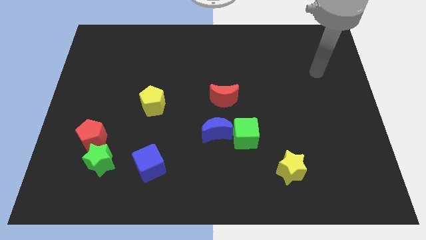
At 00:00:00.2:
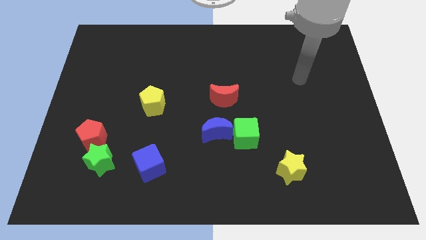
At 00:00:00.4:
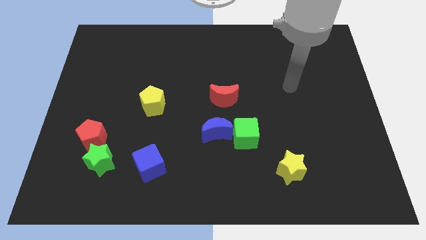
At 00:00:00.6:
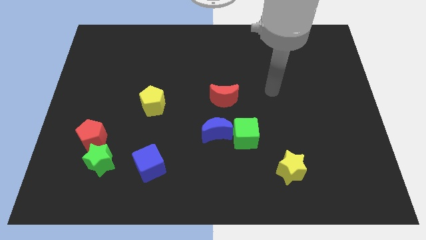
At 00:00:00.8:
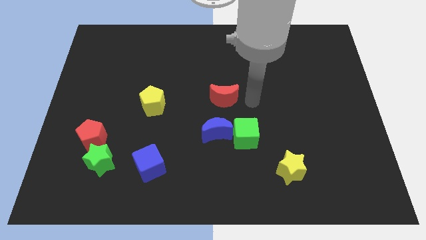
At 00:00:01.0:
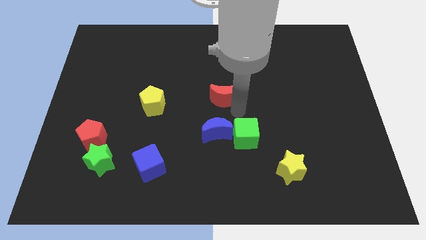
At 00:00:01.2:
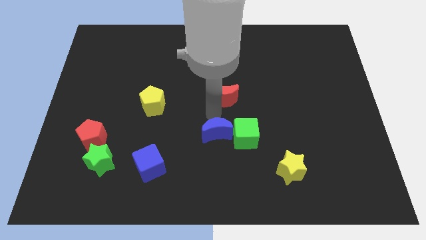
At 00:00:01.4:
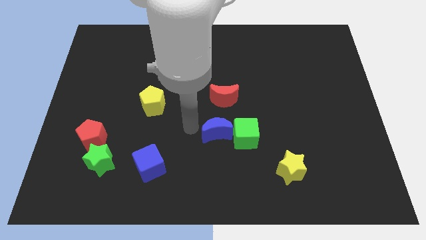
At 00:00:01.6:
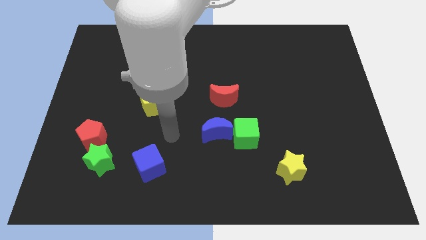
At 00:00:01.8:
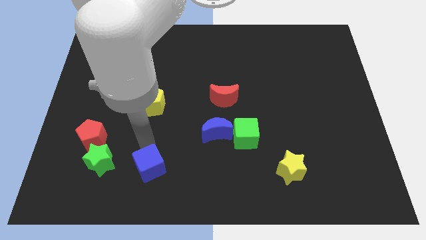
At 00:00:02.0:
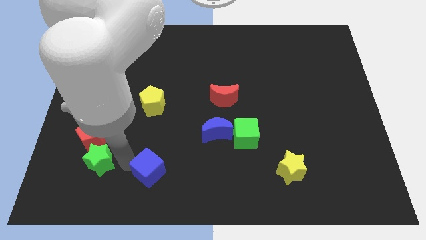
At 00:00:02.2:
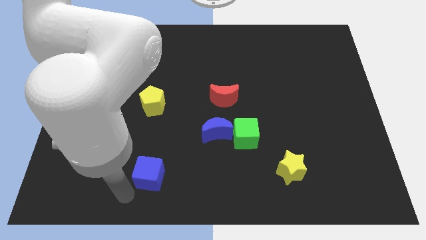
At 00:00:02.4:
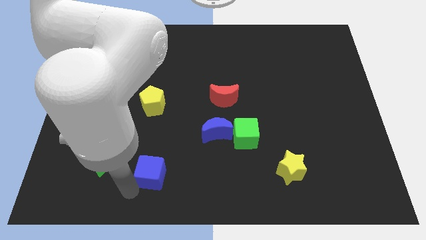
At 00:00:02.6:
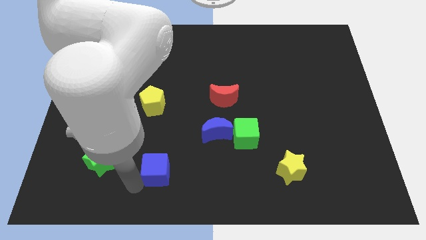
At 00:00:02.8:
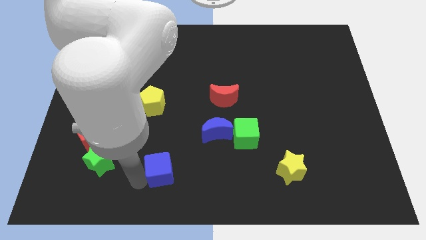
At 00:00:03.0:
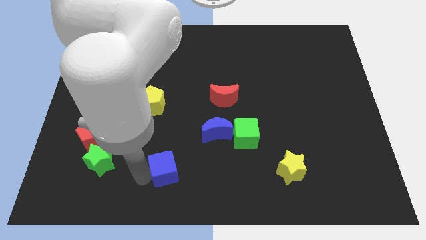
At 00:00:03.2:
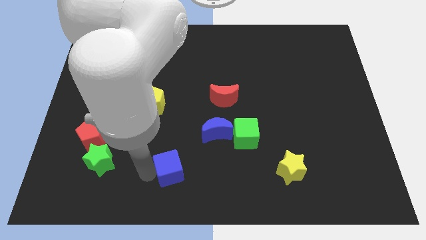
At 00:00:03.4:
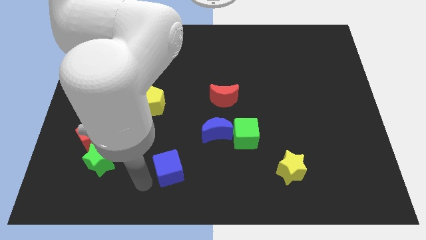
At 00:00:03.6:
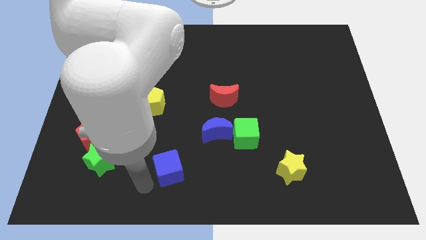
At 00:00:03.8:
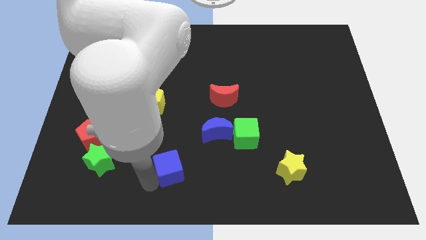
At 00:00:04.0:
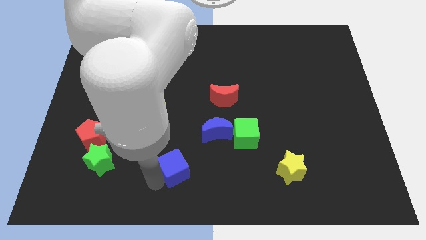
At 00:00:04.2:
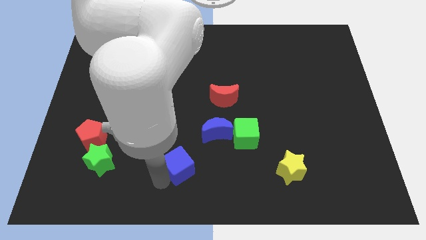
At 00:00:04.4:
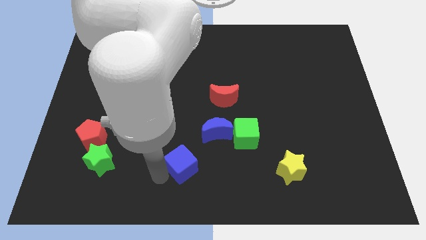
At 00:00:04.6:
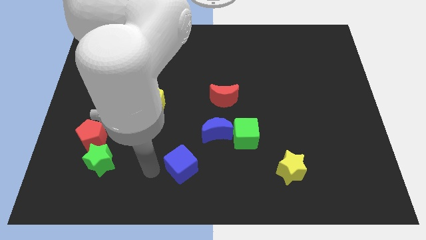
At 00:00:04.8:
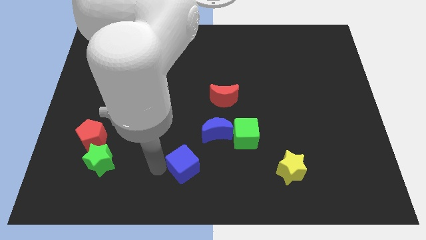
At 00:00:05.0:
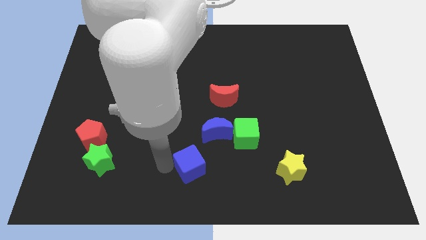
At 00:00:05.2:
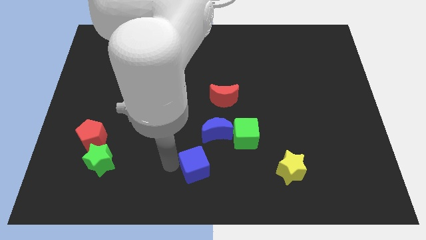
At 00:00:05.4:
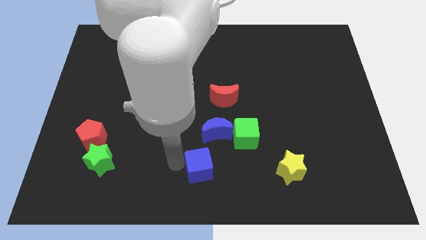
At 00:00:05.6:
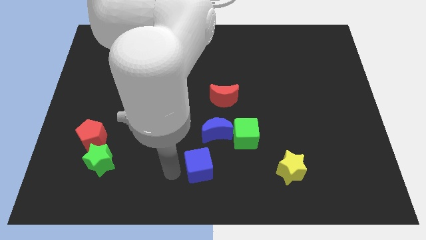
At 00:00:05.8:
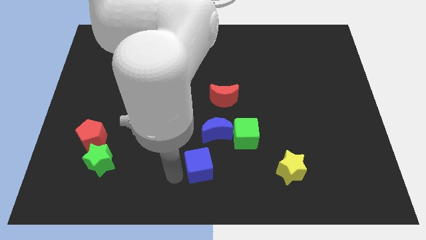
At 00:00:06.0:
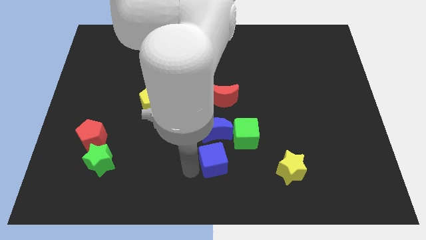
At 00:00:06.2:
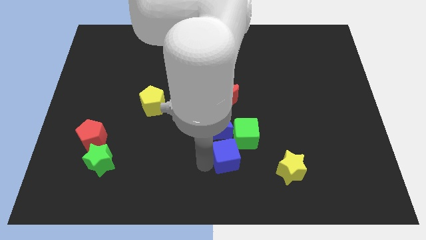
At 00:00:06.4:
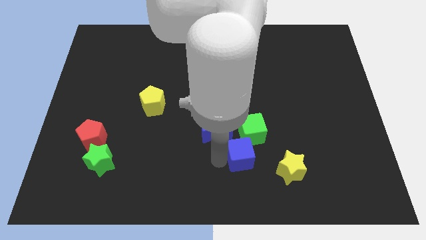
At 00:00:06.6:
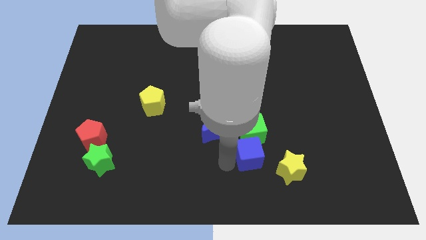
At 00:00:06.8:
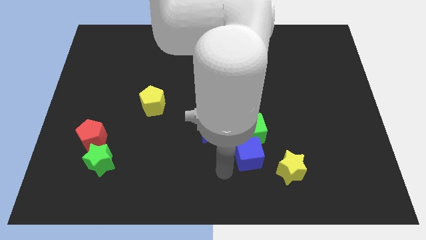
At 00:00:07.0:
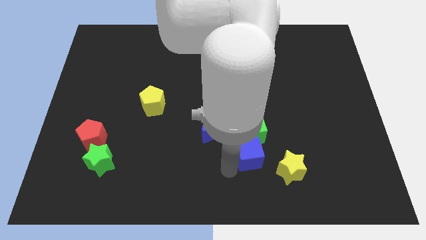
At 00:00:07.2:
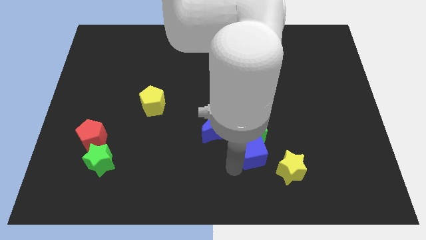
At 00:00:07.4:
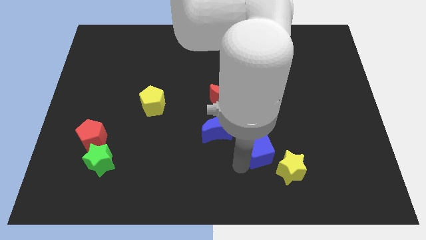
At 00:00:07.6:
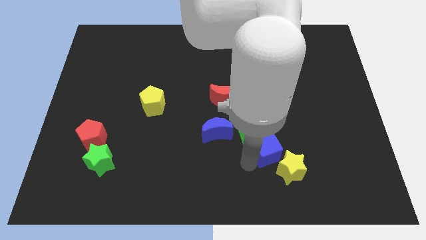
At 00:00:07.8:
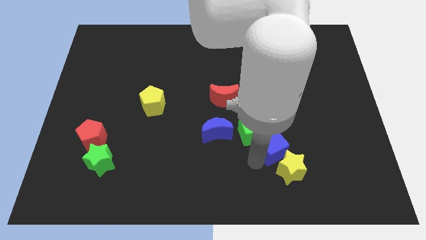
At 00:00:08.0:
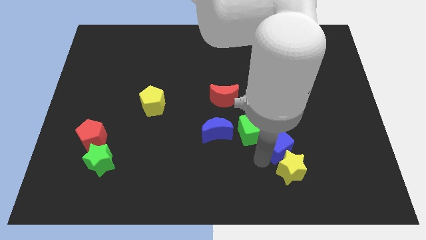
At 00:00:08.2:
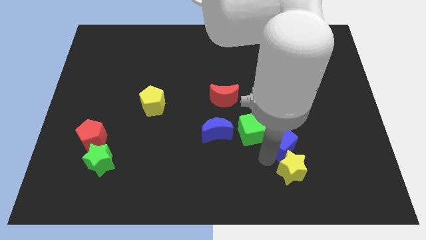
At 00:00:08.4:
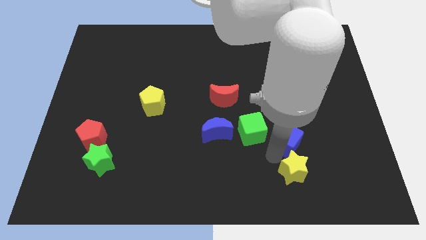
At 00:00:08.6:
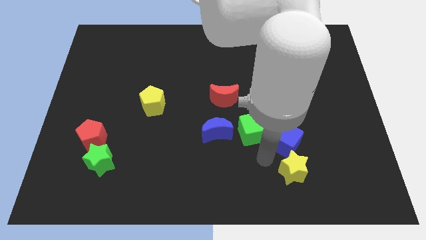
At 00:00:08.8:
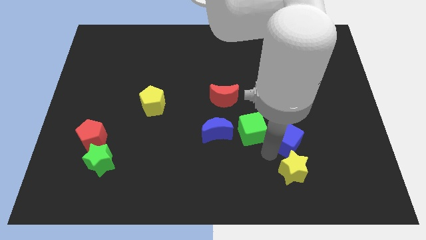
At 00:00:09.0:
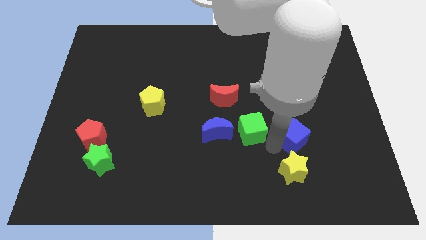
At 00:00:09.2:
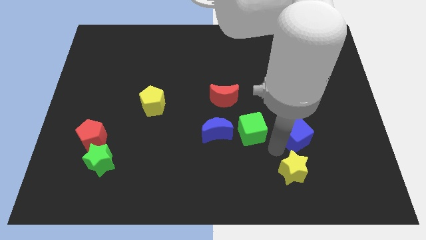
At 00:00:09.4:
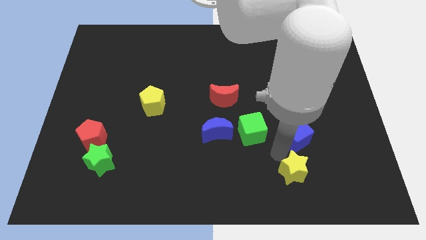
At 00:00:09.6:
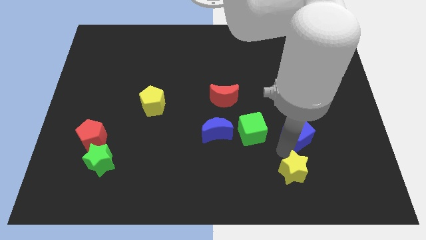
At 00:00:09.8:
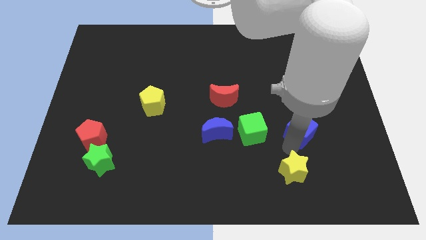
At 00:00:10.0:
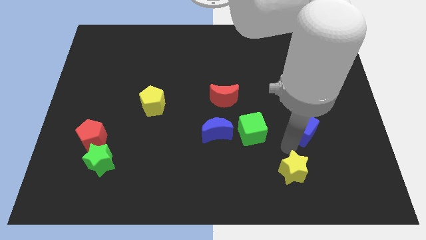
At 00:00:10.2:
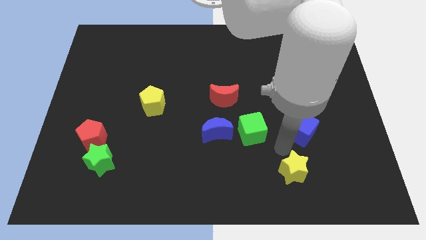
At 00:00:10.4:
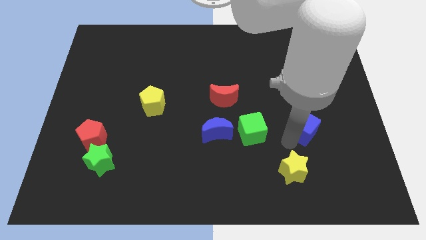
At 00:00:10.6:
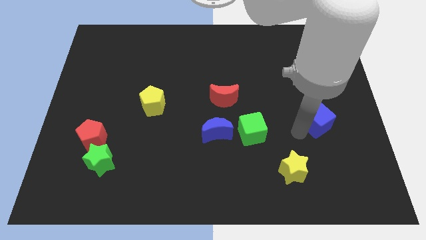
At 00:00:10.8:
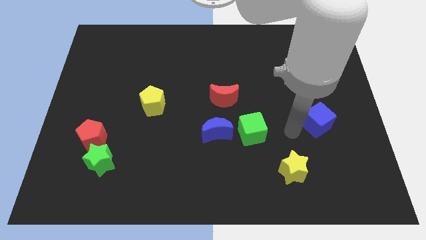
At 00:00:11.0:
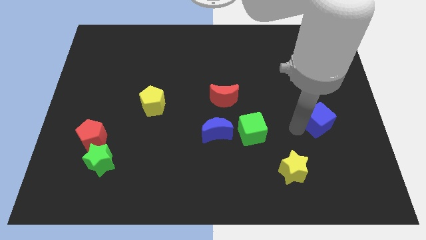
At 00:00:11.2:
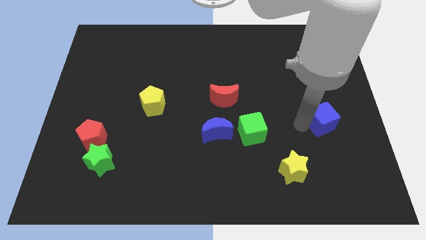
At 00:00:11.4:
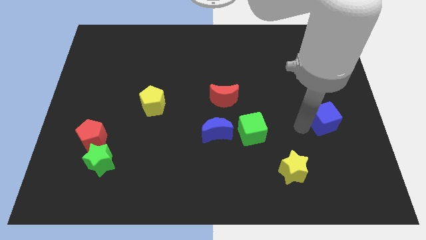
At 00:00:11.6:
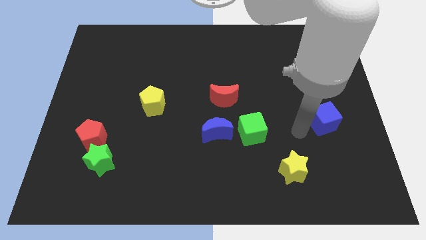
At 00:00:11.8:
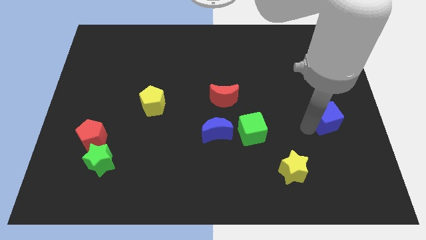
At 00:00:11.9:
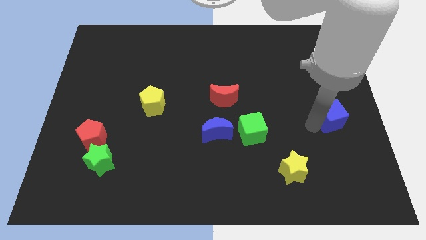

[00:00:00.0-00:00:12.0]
push the blue cube to the right side of the board
